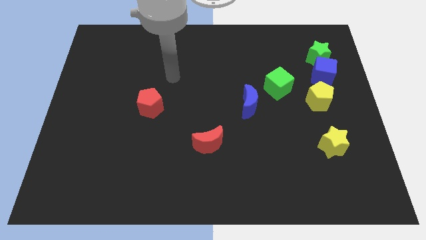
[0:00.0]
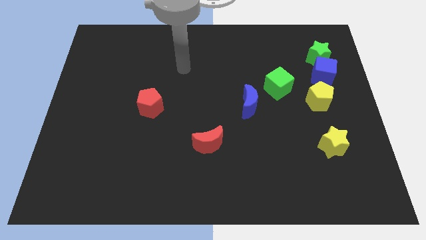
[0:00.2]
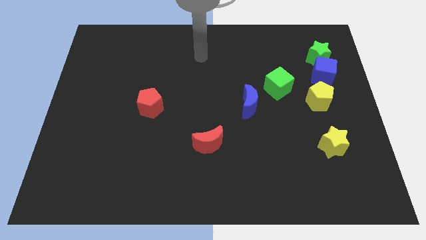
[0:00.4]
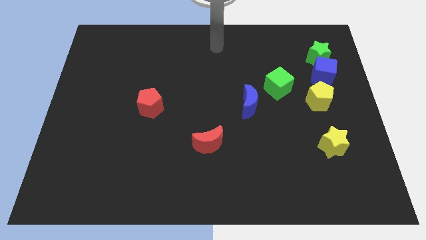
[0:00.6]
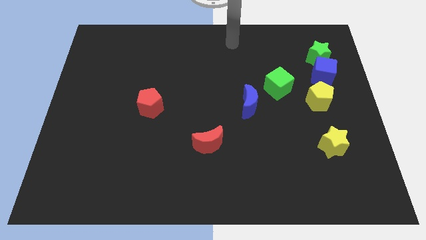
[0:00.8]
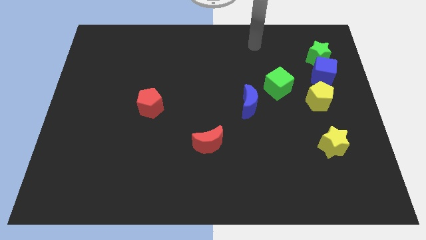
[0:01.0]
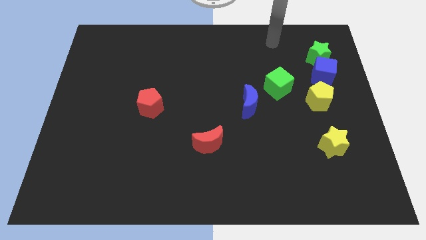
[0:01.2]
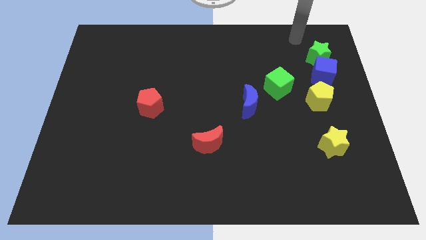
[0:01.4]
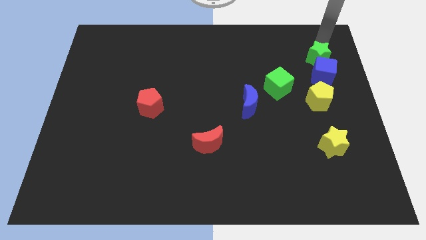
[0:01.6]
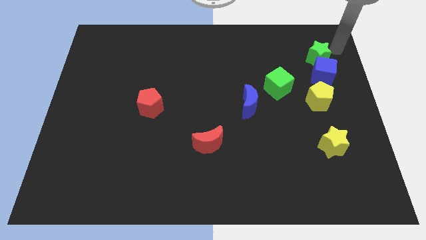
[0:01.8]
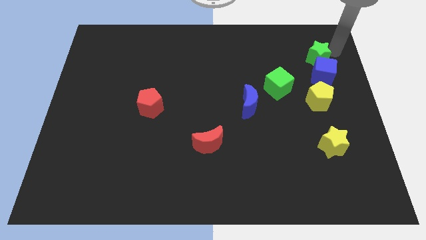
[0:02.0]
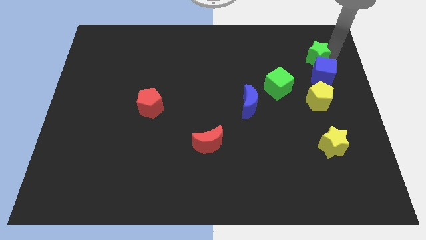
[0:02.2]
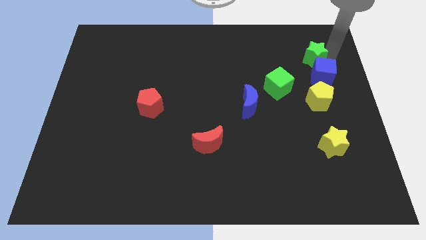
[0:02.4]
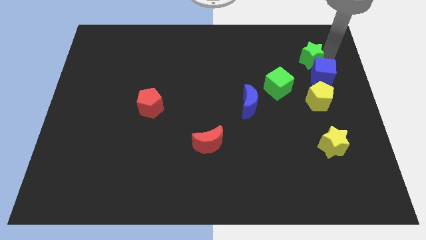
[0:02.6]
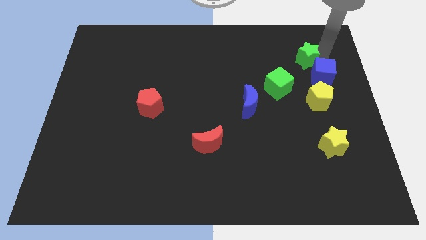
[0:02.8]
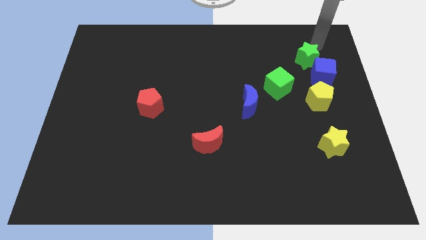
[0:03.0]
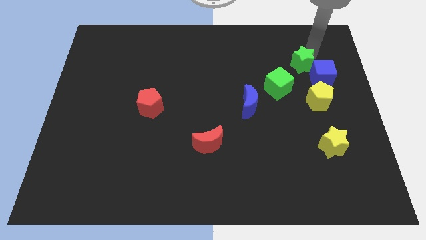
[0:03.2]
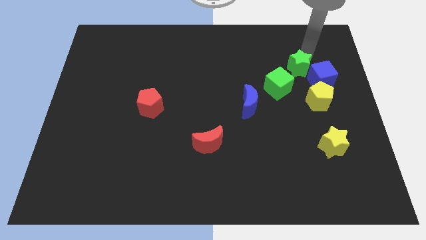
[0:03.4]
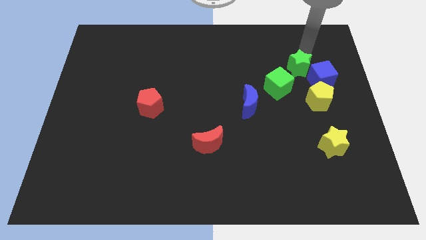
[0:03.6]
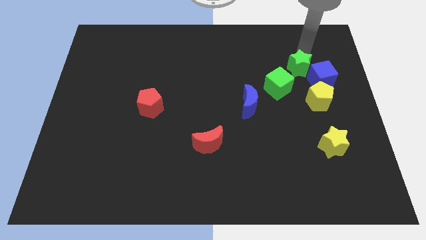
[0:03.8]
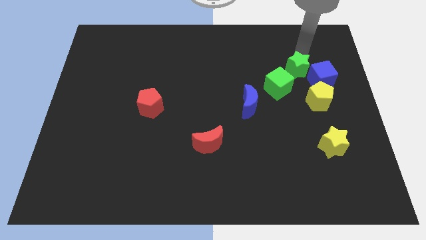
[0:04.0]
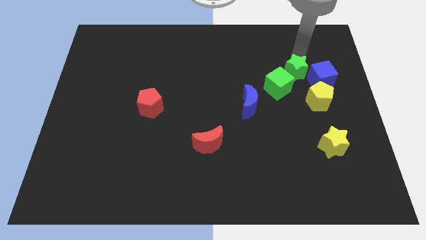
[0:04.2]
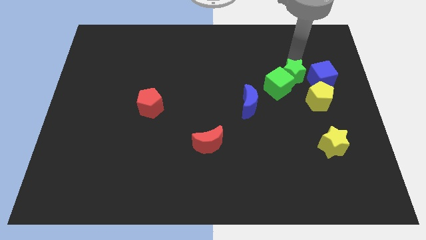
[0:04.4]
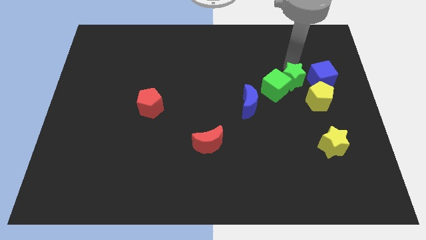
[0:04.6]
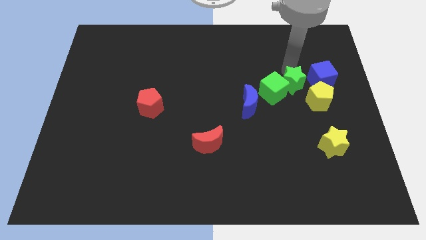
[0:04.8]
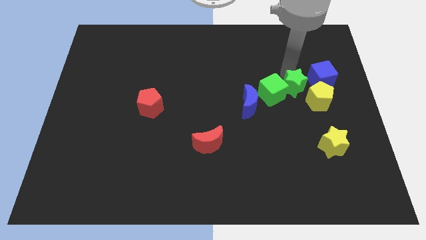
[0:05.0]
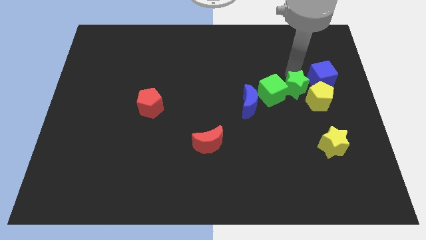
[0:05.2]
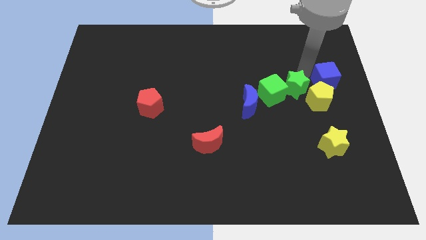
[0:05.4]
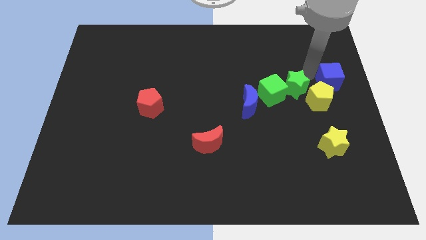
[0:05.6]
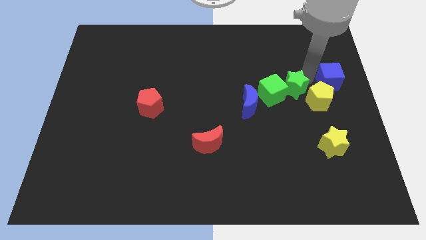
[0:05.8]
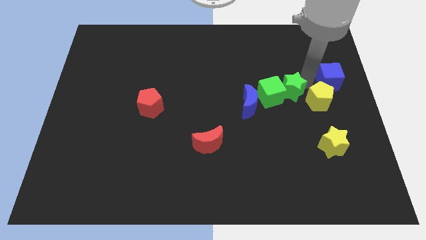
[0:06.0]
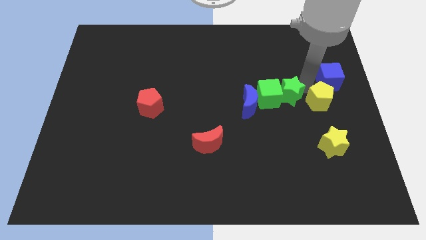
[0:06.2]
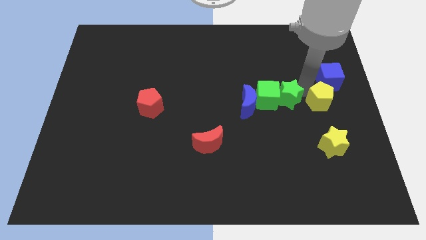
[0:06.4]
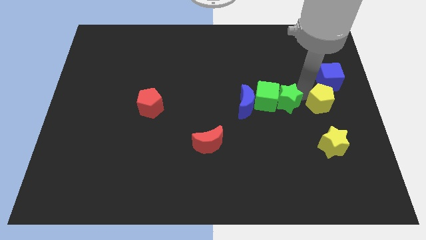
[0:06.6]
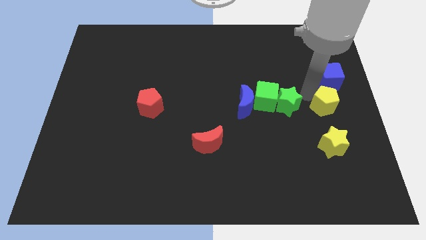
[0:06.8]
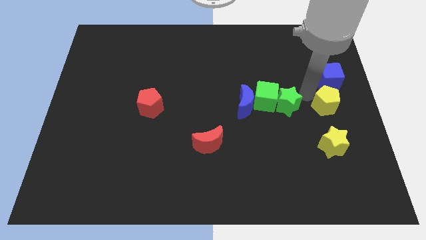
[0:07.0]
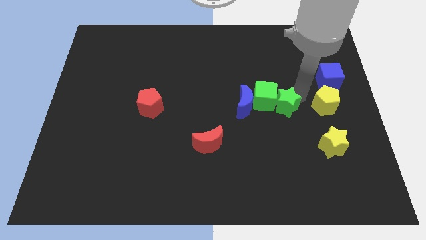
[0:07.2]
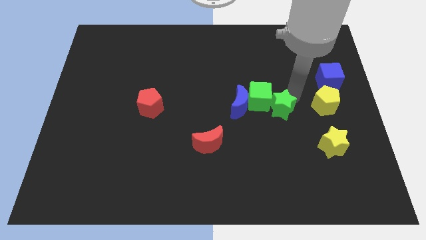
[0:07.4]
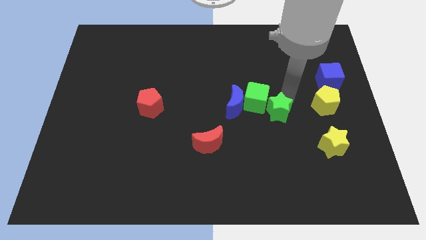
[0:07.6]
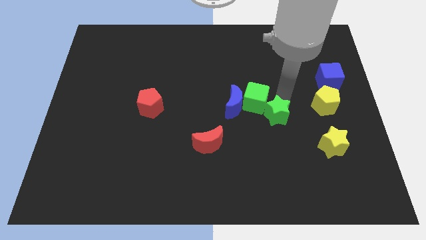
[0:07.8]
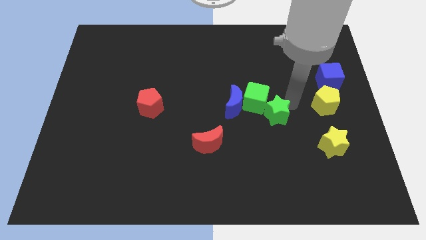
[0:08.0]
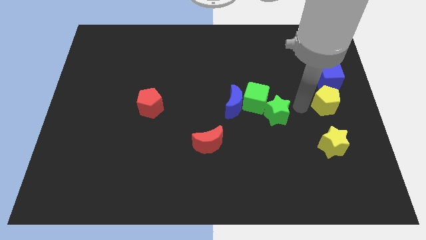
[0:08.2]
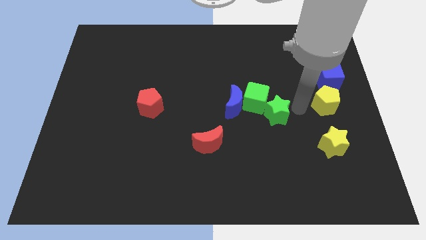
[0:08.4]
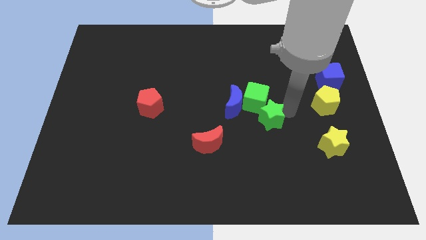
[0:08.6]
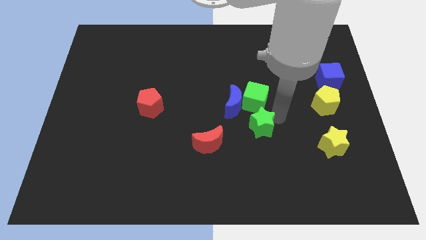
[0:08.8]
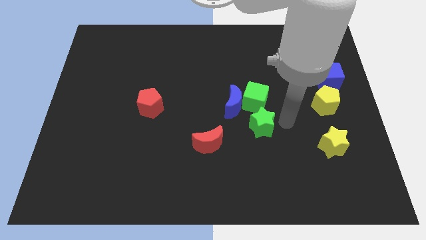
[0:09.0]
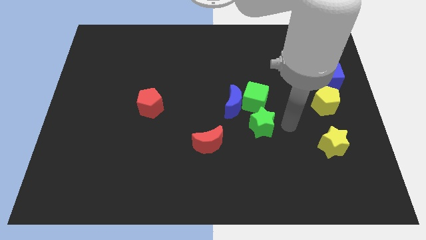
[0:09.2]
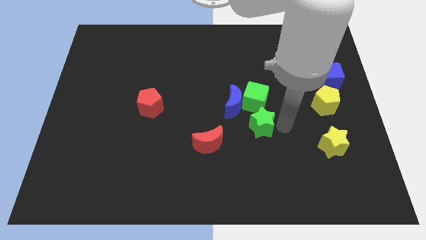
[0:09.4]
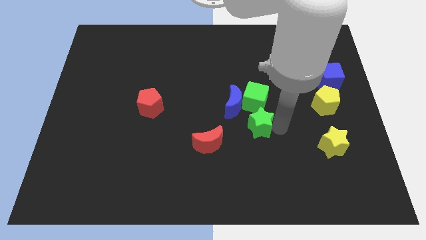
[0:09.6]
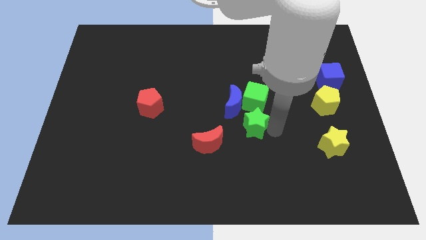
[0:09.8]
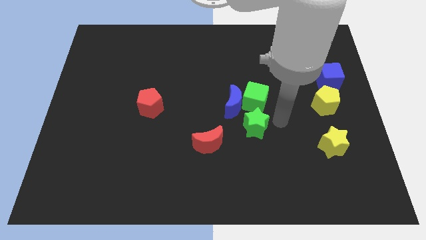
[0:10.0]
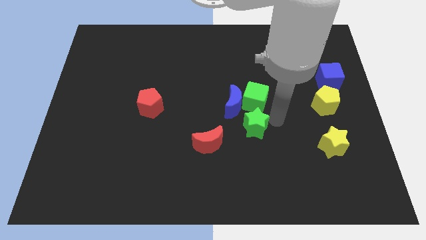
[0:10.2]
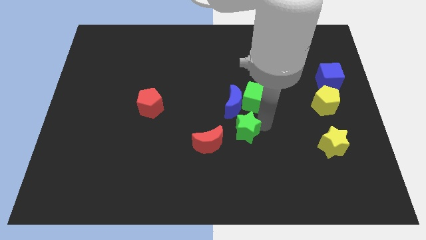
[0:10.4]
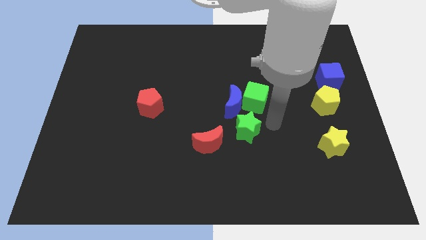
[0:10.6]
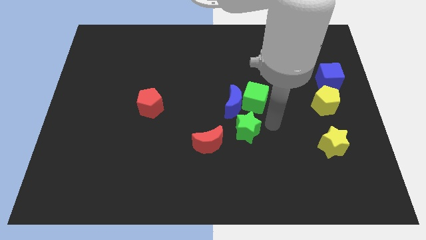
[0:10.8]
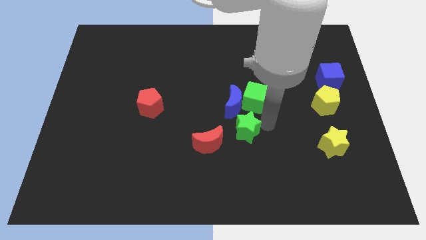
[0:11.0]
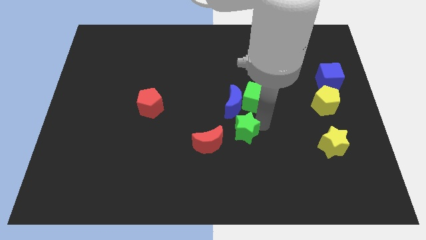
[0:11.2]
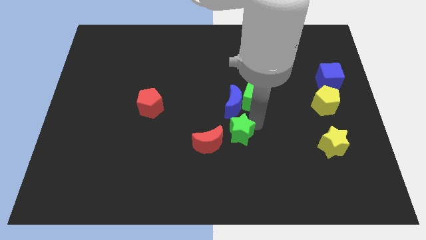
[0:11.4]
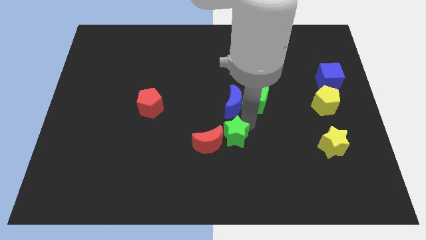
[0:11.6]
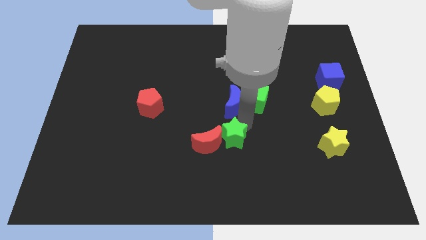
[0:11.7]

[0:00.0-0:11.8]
slide the green star close to the red moon

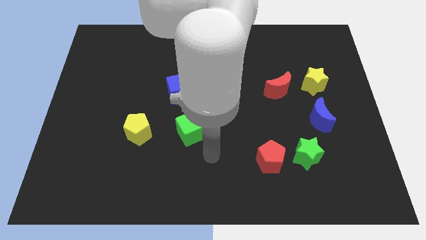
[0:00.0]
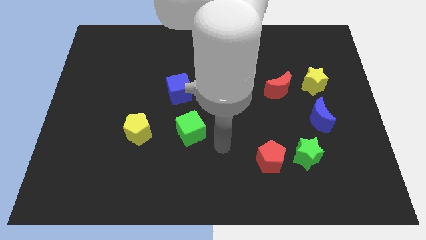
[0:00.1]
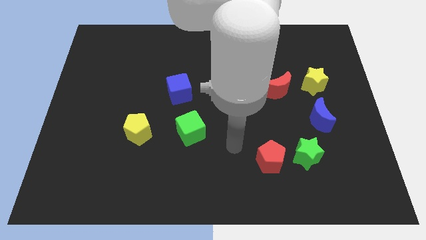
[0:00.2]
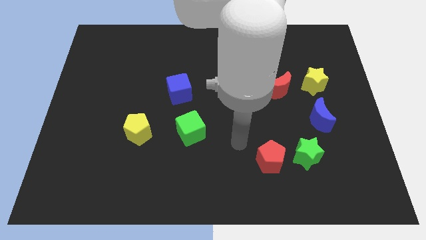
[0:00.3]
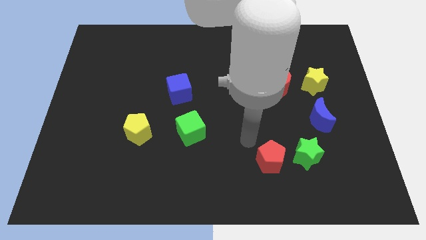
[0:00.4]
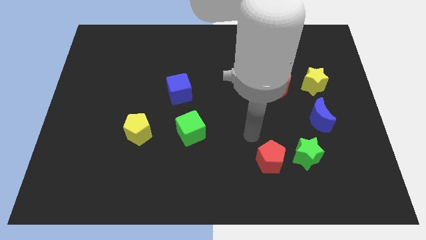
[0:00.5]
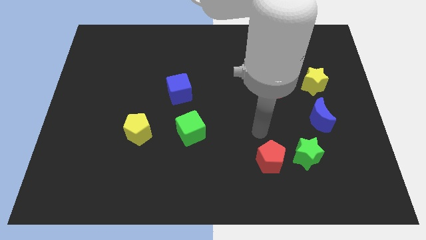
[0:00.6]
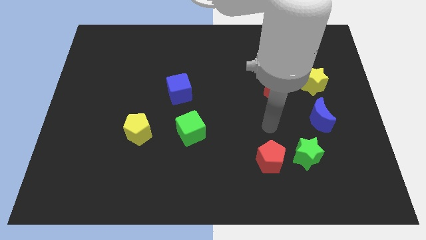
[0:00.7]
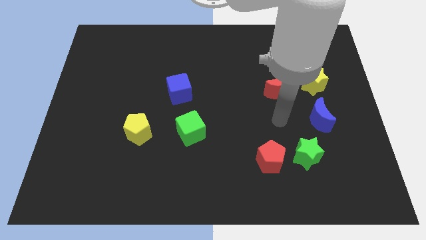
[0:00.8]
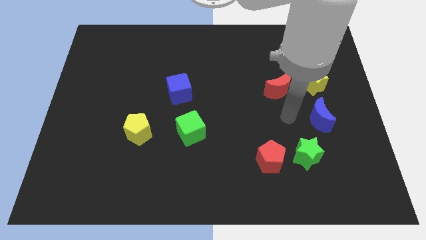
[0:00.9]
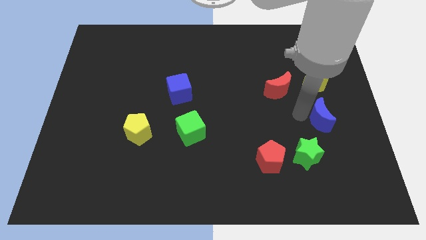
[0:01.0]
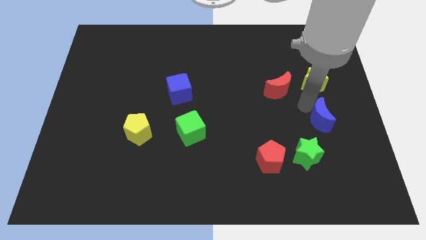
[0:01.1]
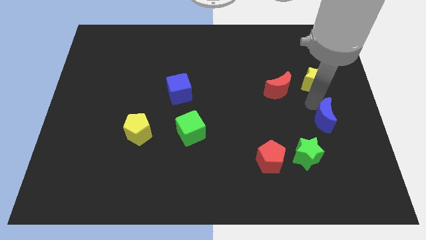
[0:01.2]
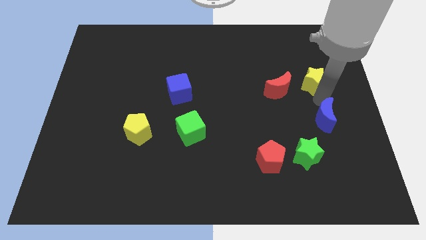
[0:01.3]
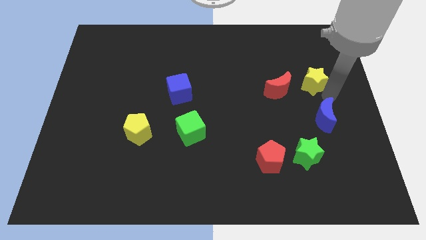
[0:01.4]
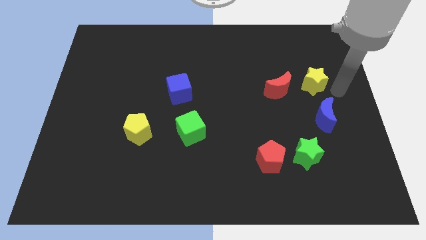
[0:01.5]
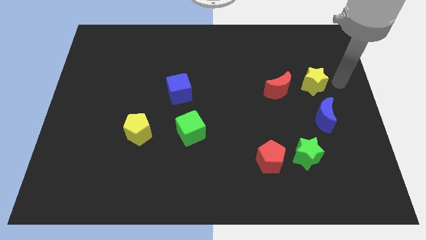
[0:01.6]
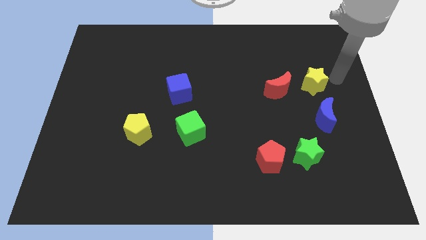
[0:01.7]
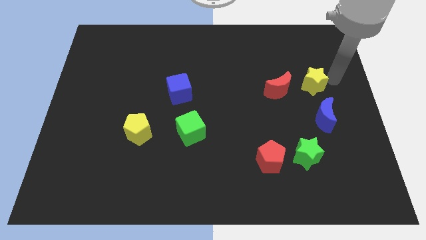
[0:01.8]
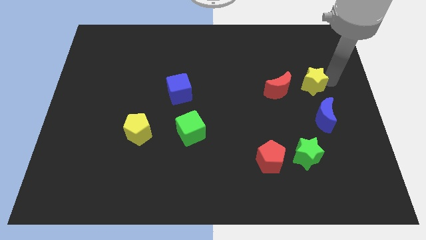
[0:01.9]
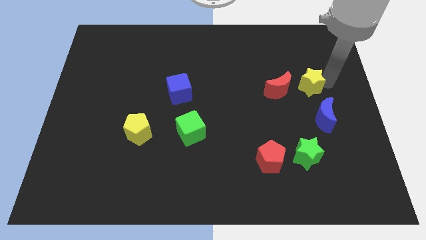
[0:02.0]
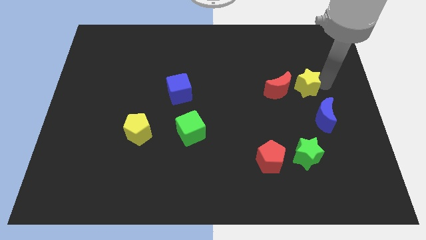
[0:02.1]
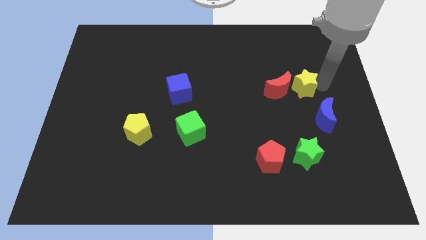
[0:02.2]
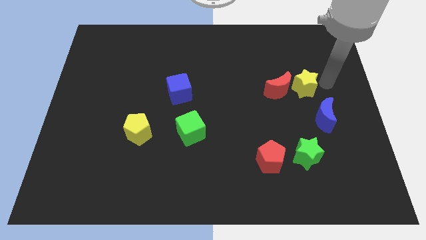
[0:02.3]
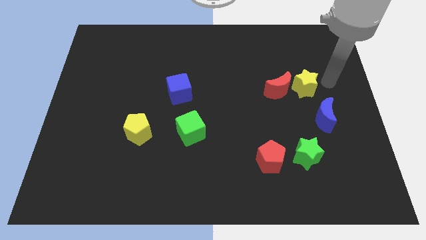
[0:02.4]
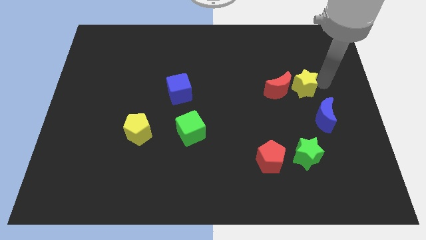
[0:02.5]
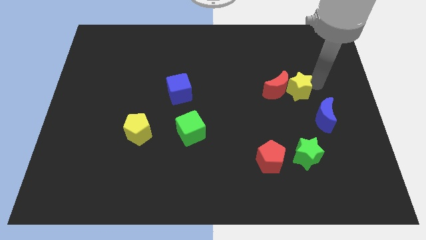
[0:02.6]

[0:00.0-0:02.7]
push the yellow star next to the red moon
